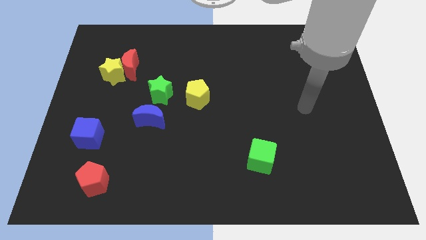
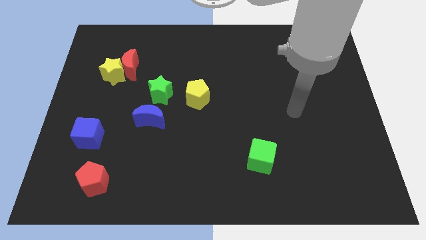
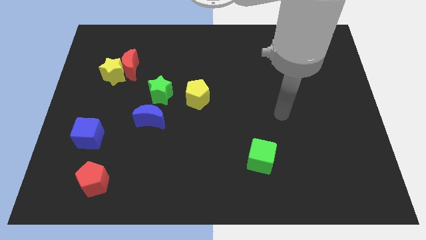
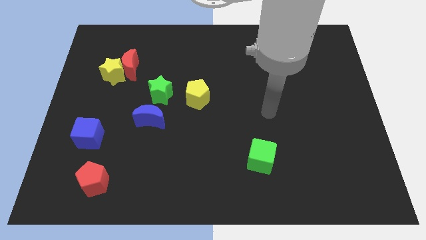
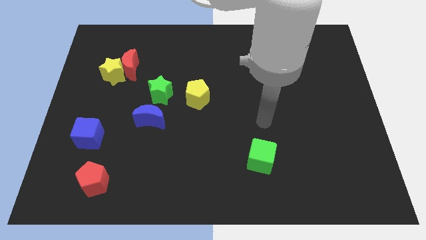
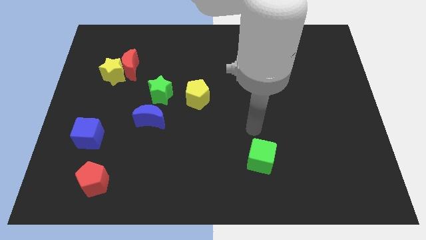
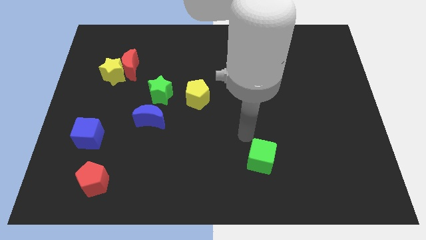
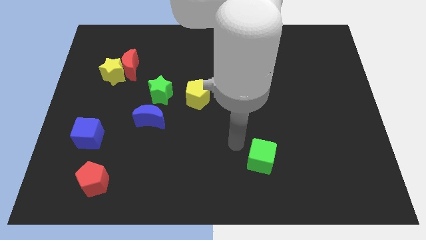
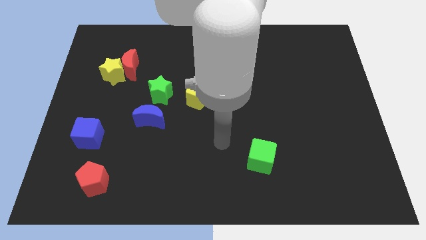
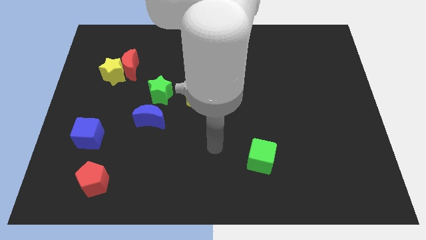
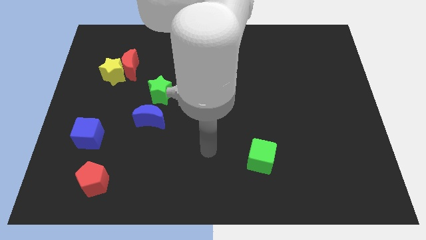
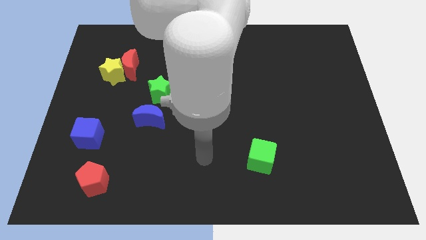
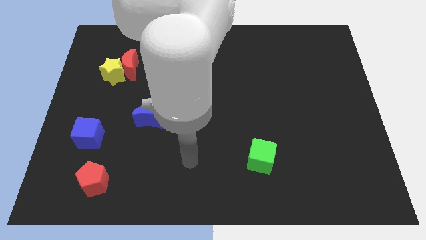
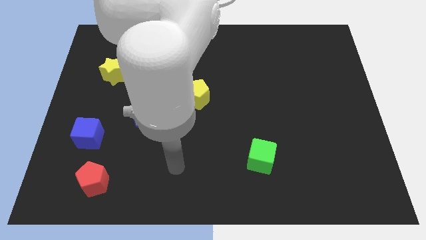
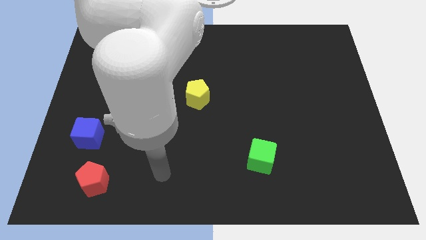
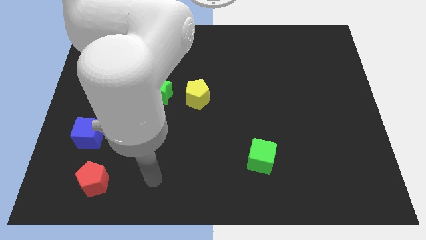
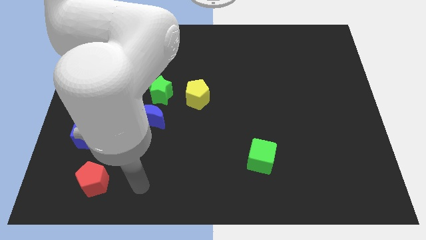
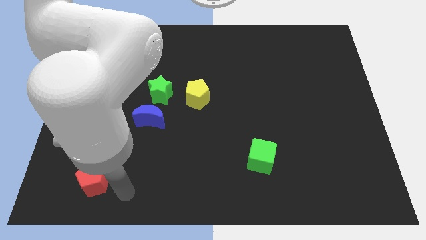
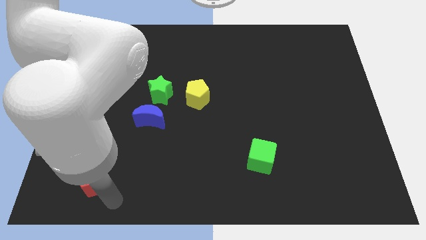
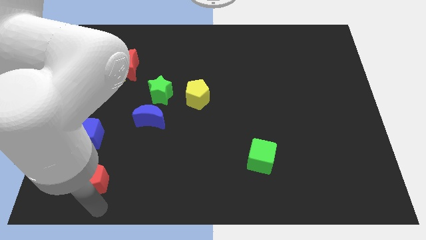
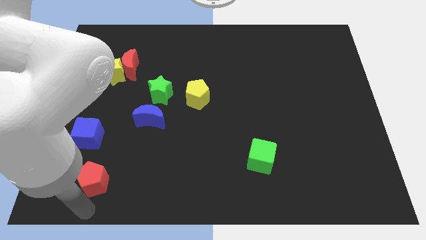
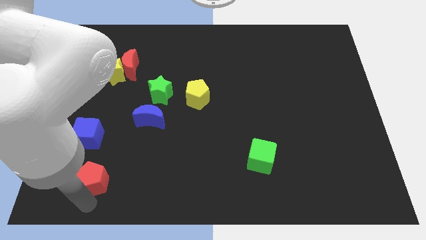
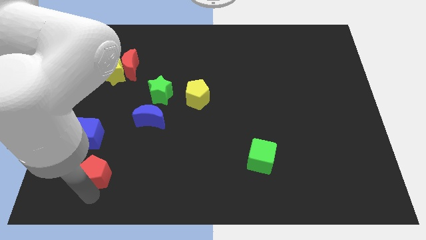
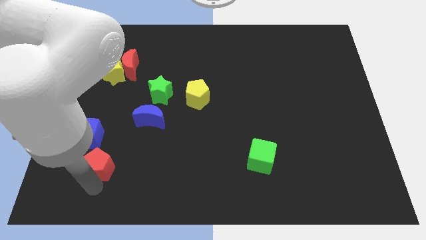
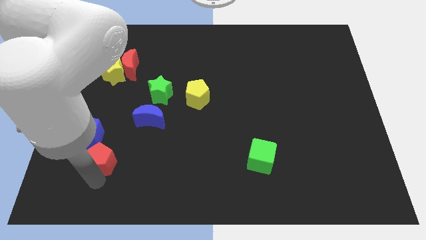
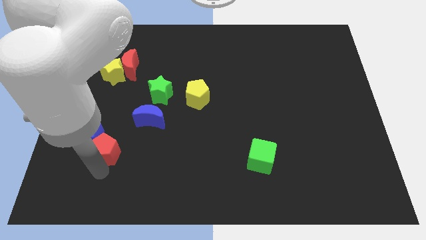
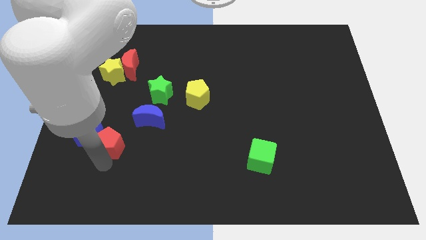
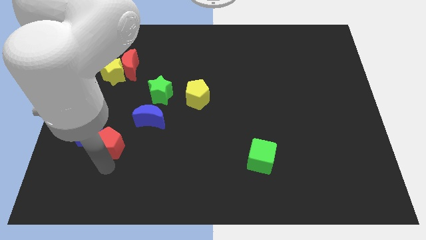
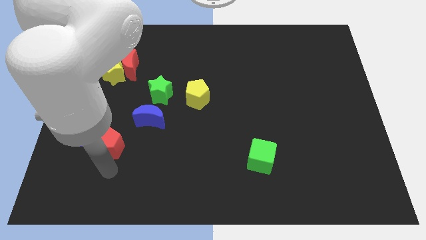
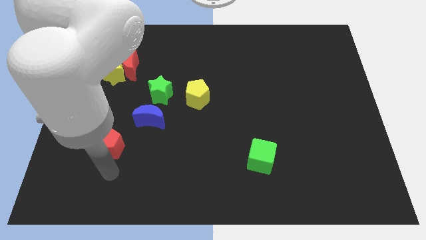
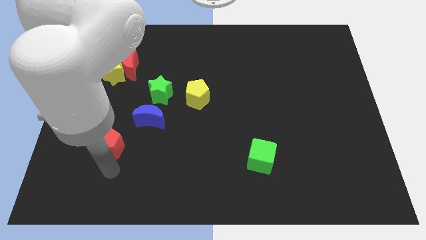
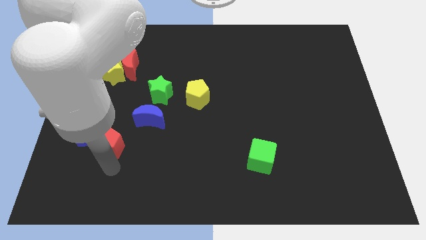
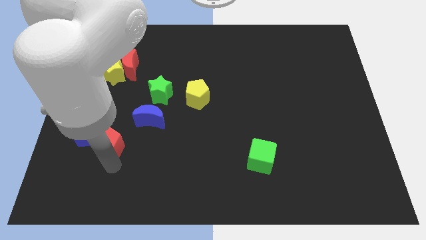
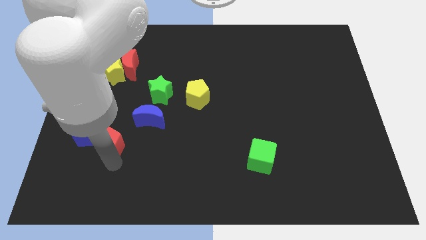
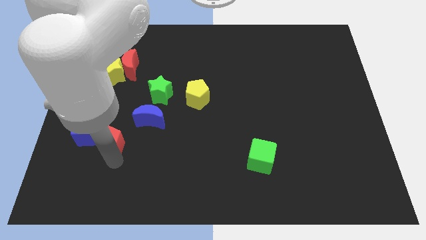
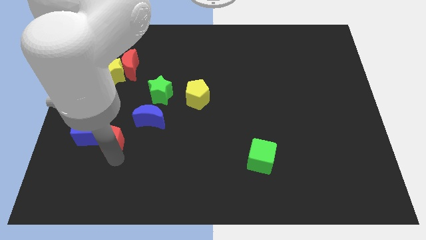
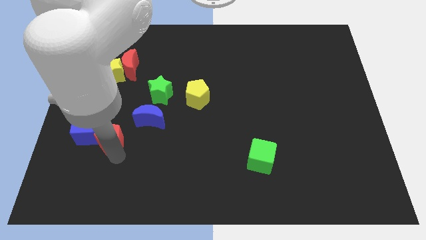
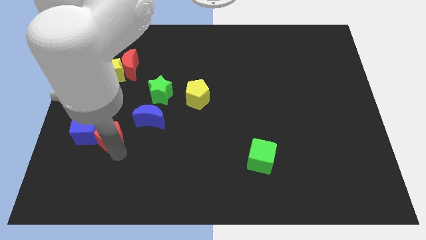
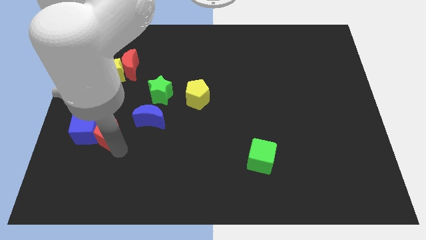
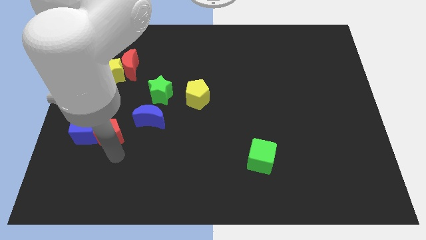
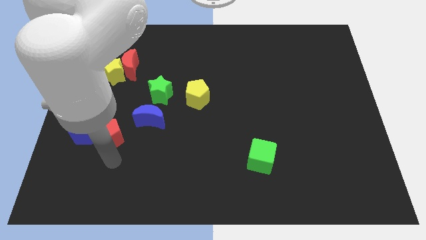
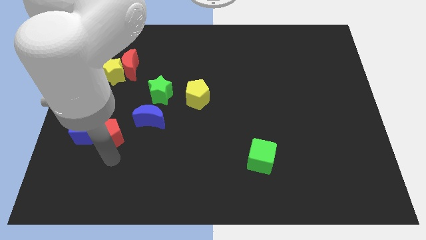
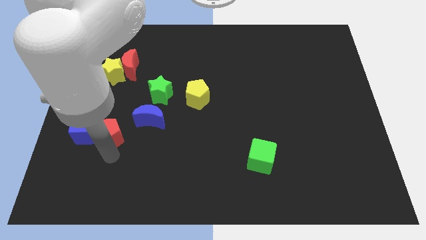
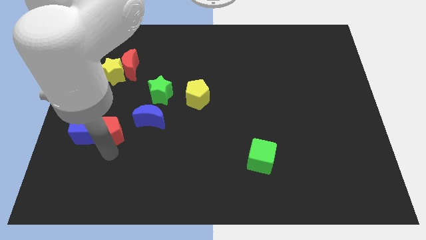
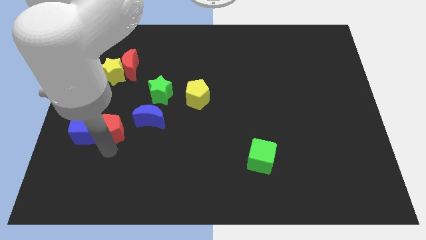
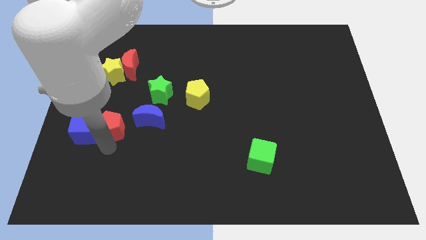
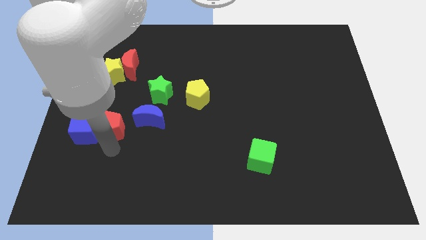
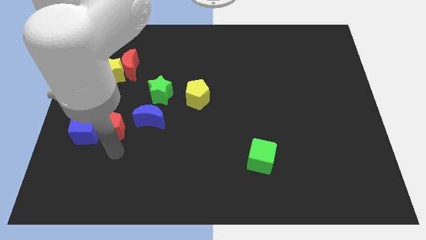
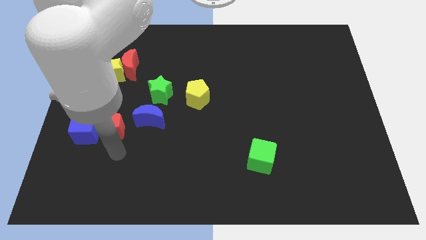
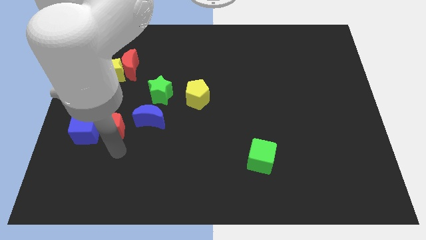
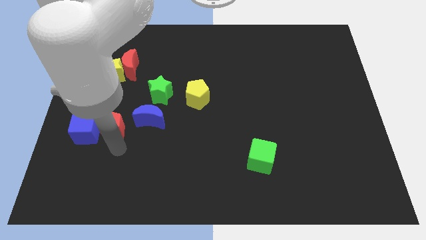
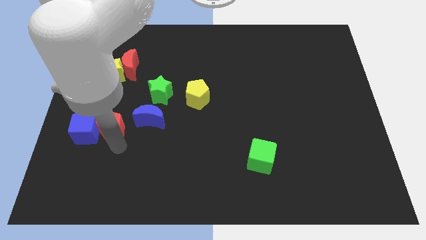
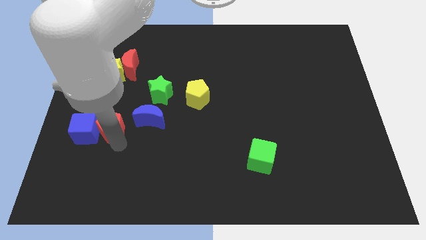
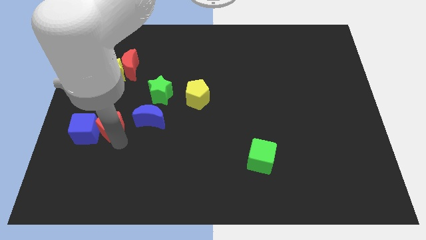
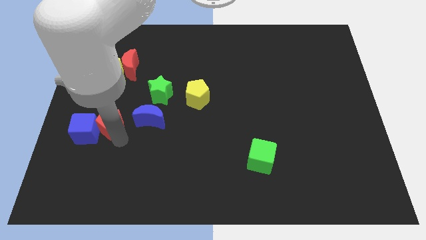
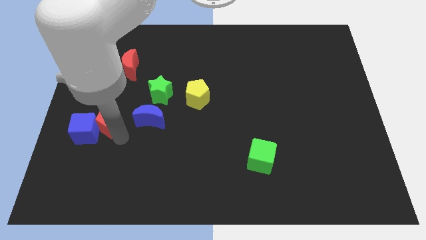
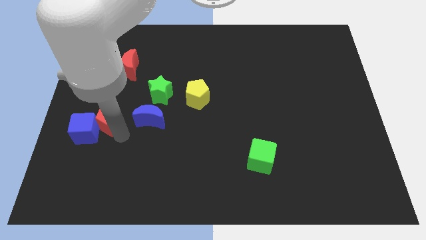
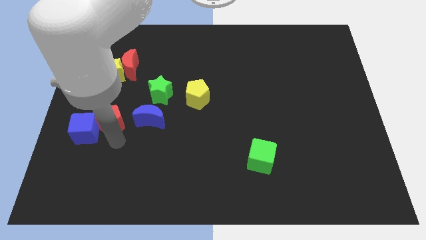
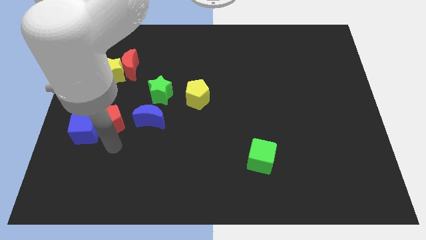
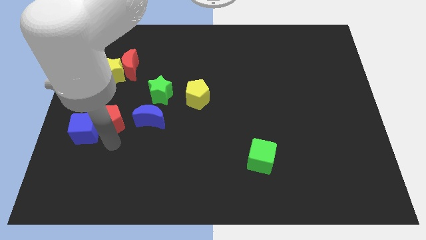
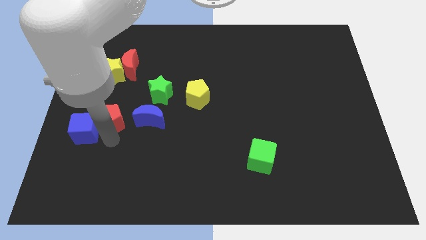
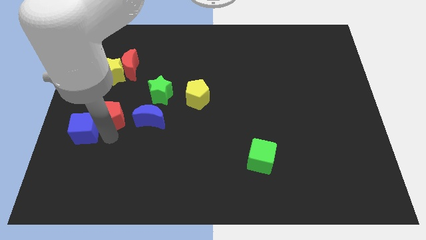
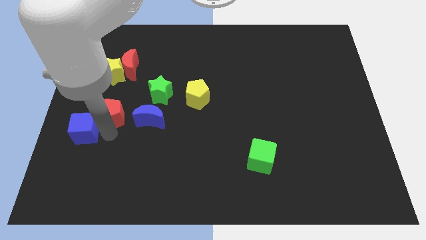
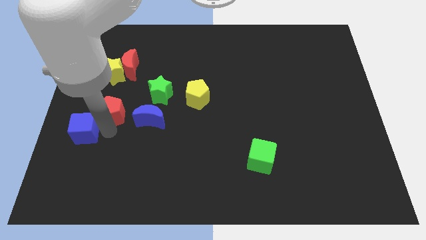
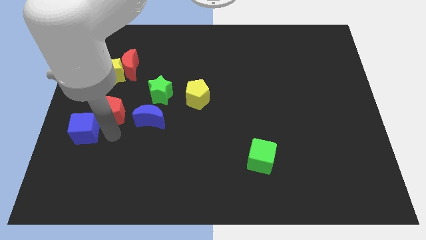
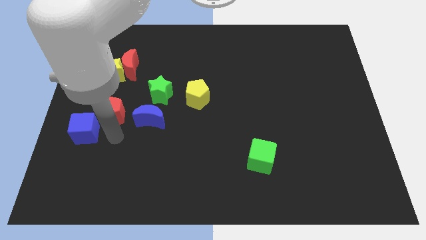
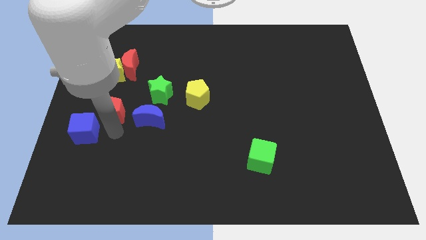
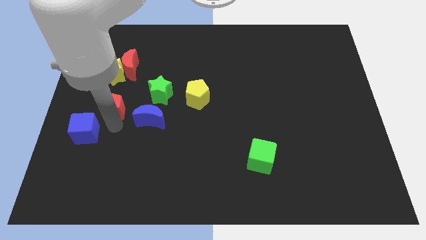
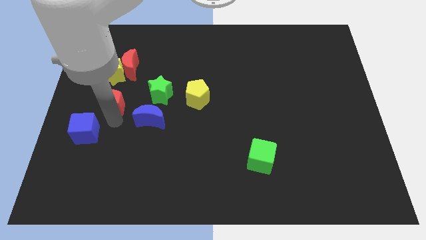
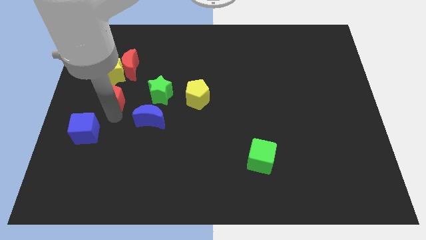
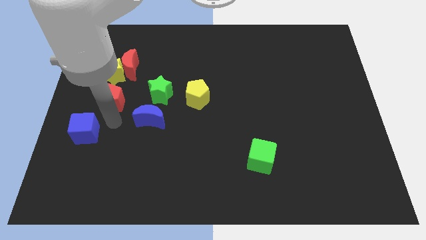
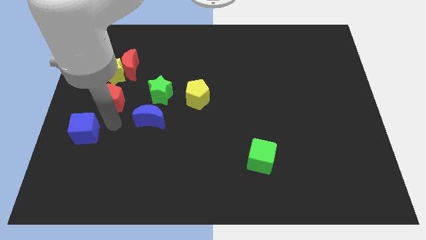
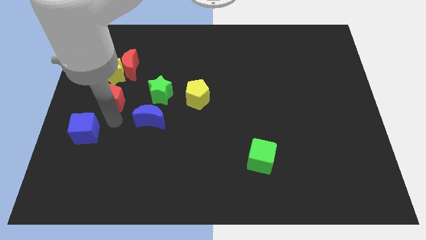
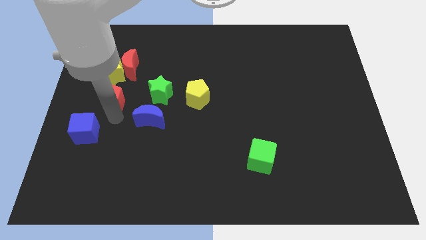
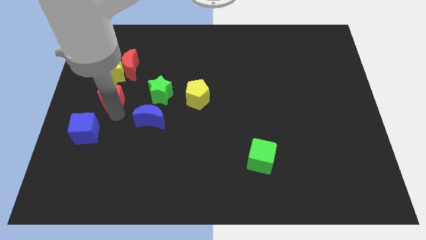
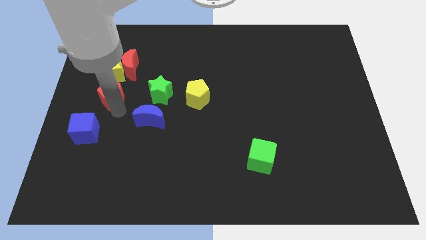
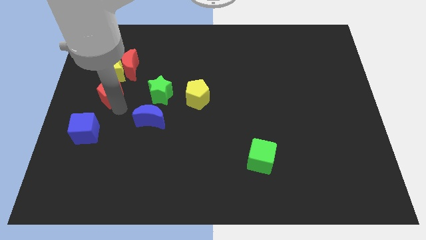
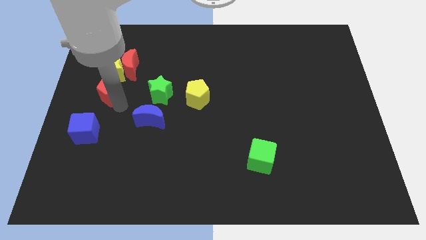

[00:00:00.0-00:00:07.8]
slide the red pentagon towards the yellow star
